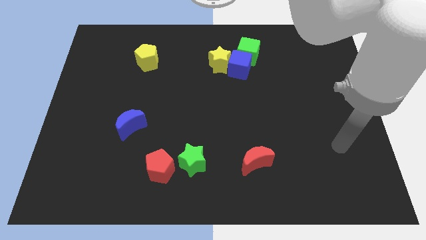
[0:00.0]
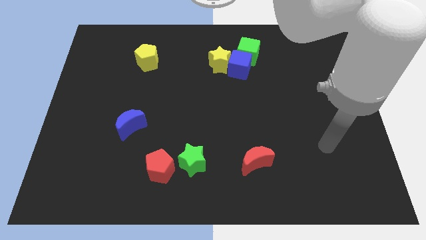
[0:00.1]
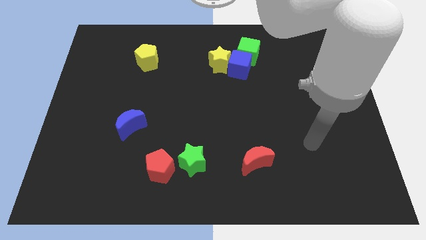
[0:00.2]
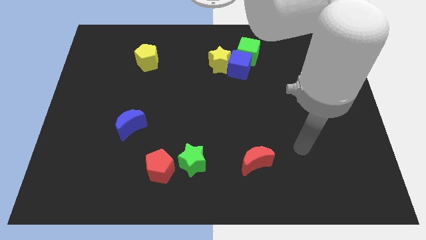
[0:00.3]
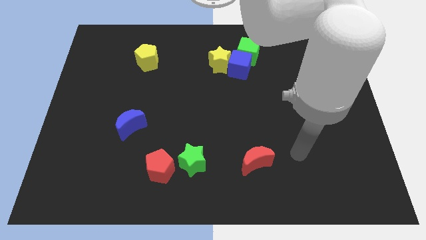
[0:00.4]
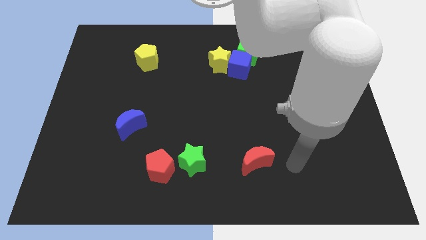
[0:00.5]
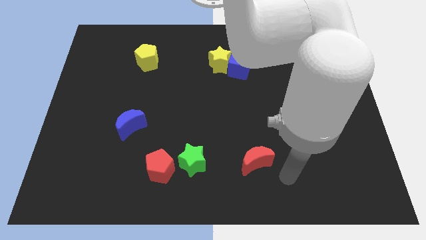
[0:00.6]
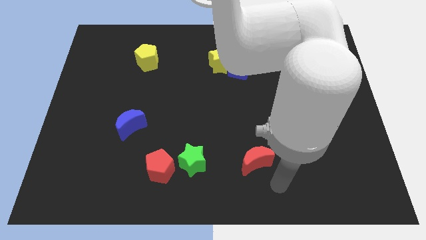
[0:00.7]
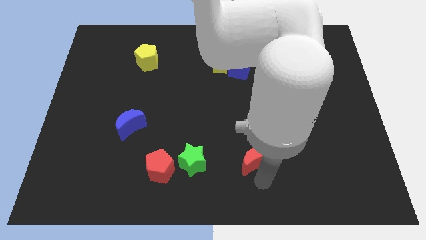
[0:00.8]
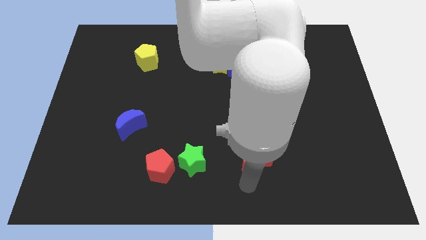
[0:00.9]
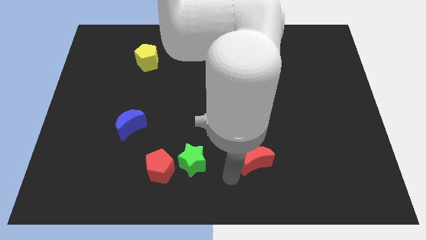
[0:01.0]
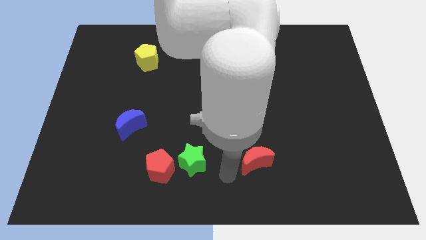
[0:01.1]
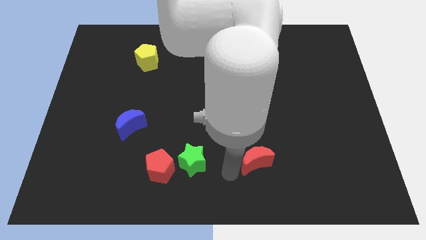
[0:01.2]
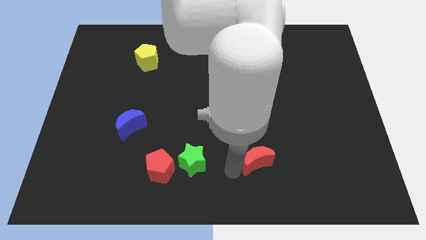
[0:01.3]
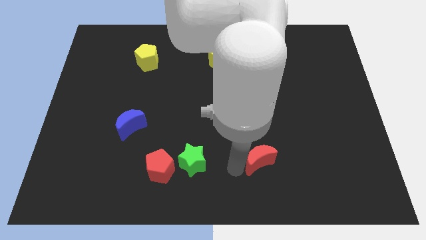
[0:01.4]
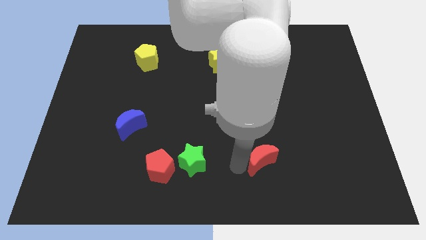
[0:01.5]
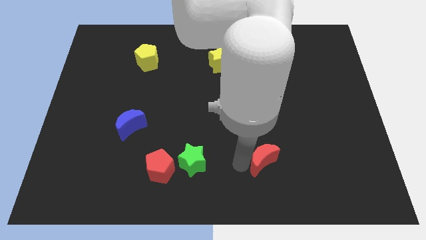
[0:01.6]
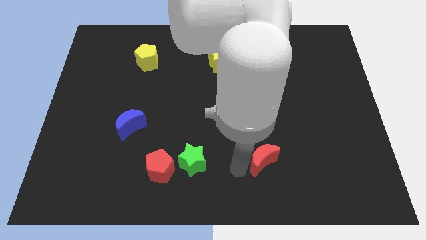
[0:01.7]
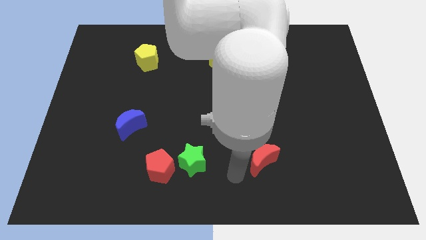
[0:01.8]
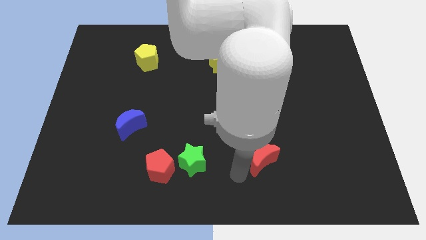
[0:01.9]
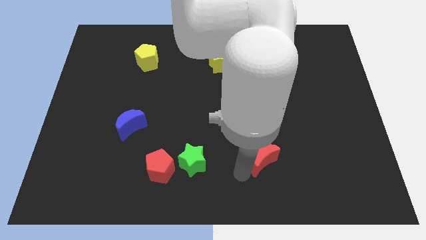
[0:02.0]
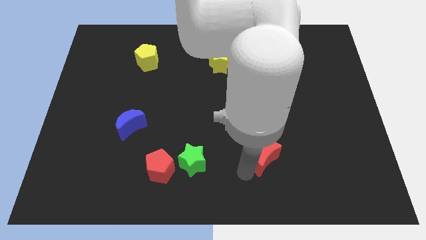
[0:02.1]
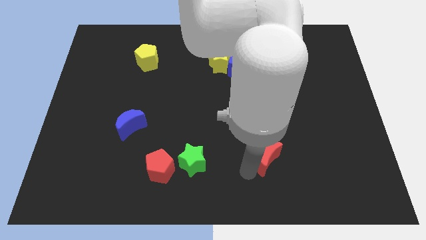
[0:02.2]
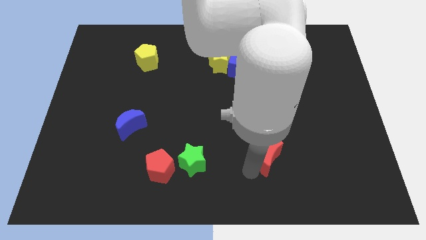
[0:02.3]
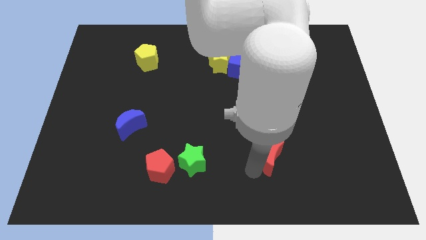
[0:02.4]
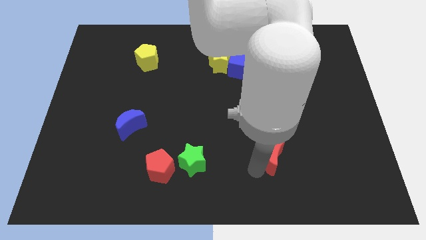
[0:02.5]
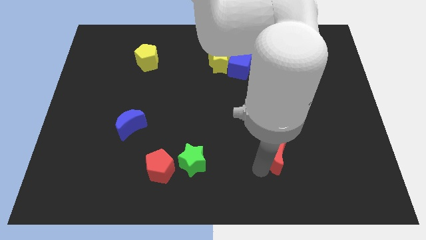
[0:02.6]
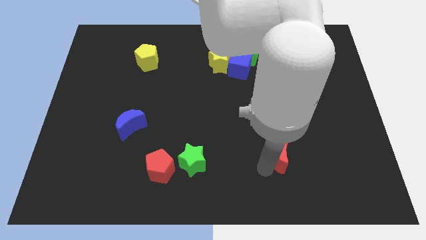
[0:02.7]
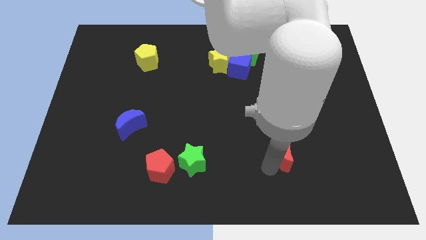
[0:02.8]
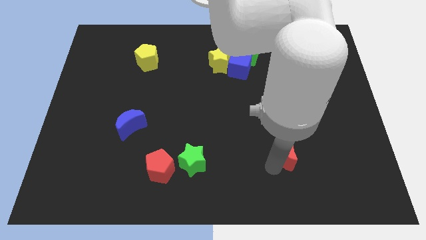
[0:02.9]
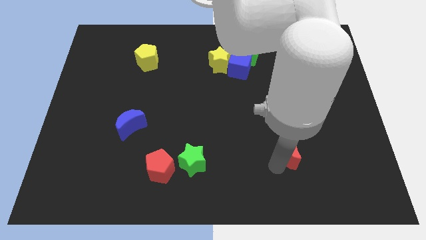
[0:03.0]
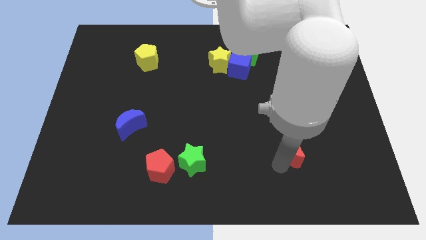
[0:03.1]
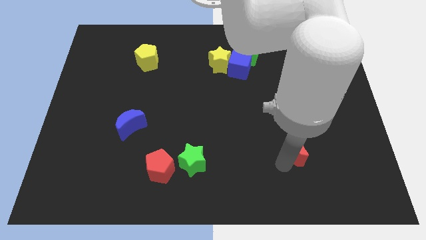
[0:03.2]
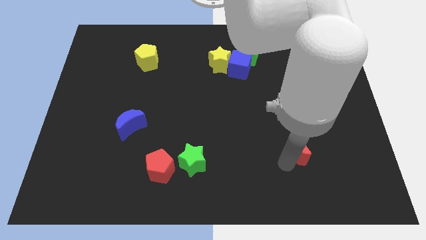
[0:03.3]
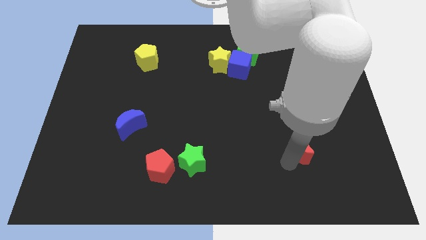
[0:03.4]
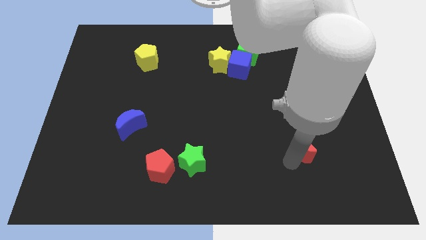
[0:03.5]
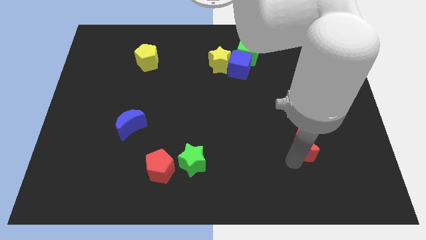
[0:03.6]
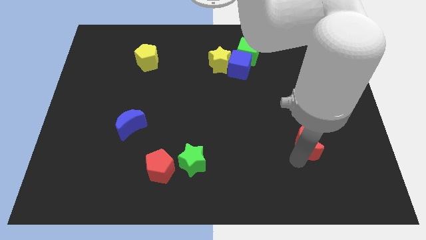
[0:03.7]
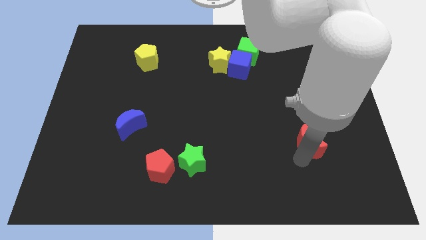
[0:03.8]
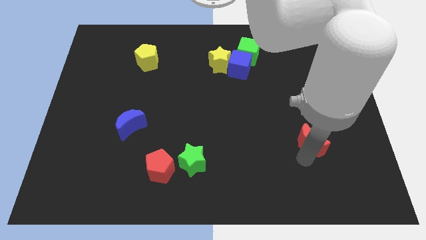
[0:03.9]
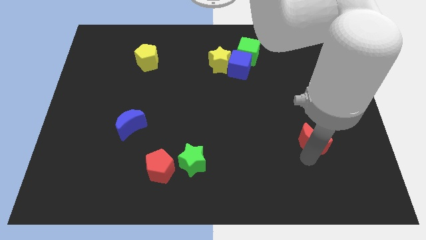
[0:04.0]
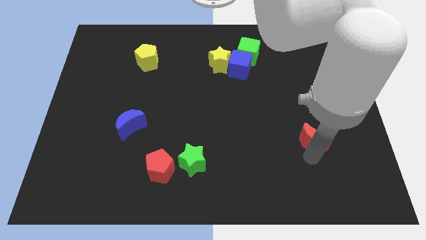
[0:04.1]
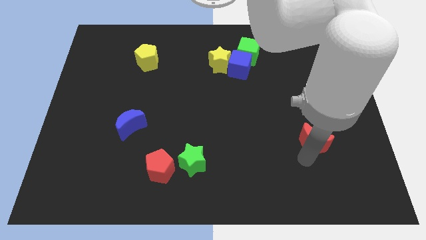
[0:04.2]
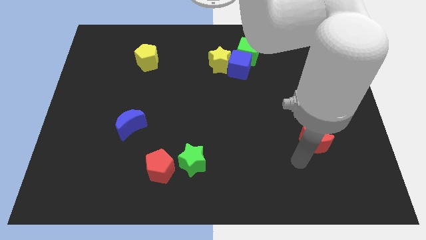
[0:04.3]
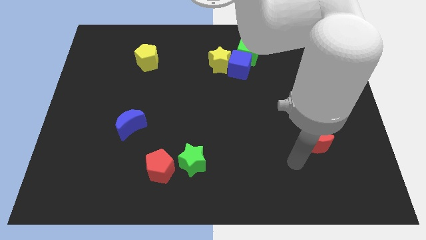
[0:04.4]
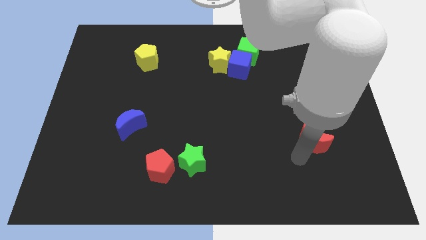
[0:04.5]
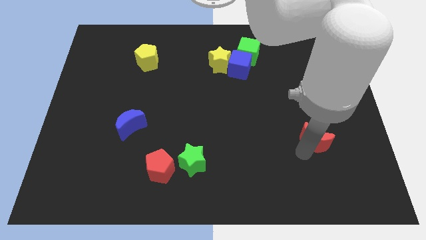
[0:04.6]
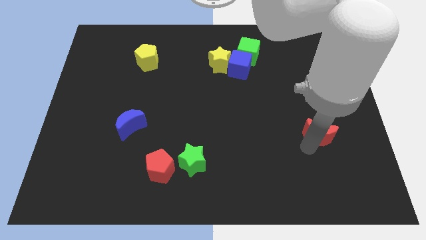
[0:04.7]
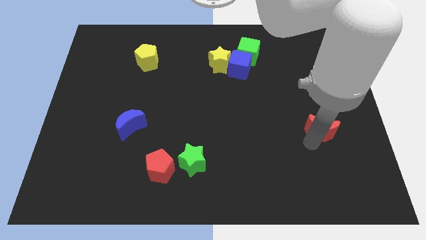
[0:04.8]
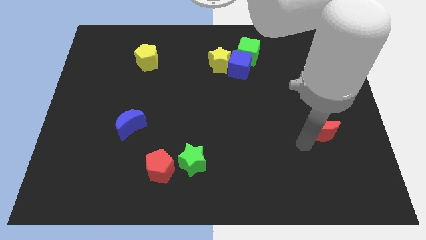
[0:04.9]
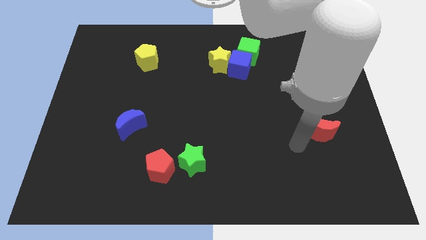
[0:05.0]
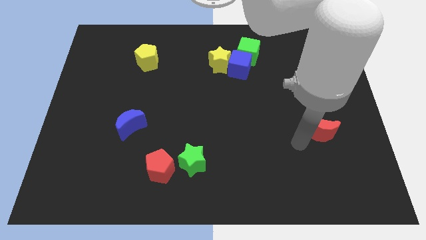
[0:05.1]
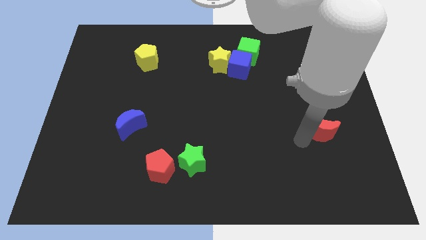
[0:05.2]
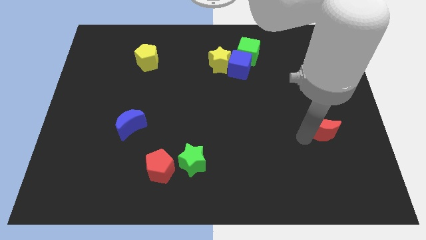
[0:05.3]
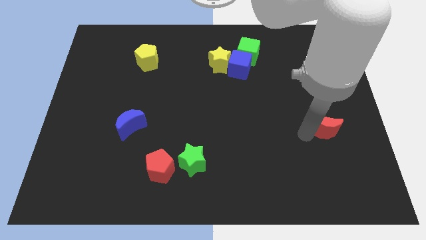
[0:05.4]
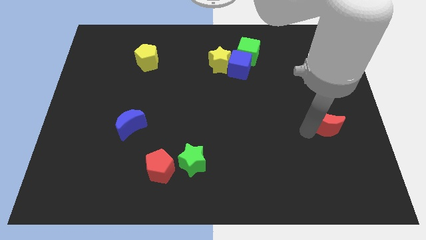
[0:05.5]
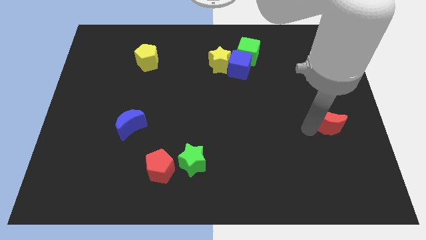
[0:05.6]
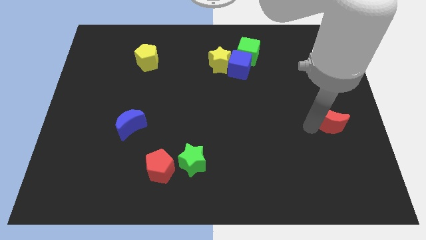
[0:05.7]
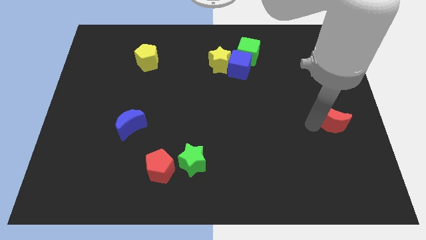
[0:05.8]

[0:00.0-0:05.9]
push the red moon to the center right

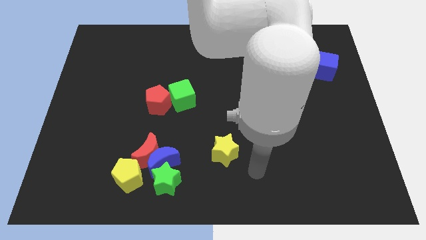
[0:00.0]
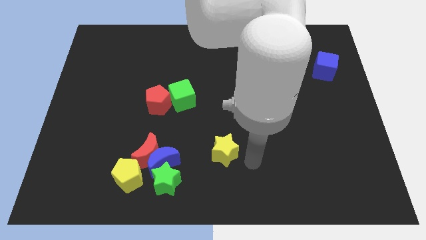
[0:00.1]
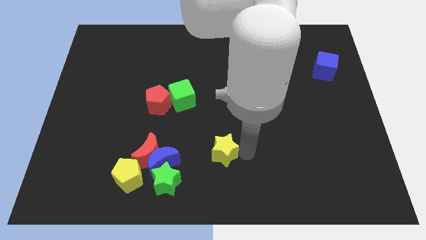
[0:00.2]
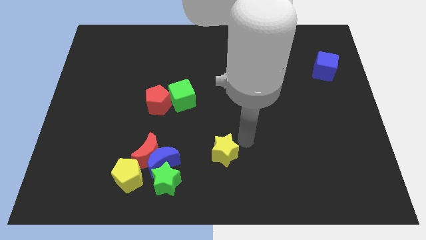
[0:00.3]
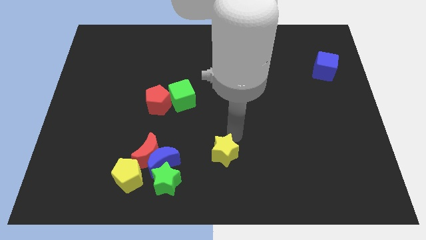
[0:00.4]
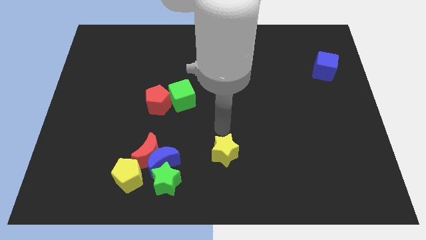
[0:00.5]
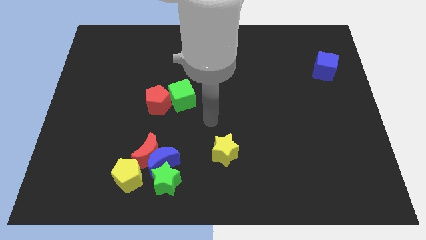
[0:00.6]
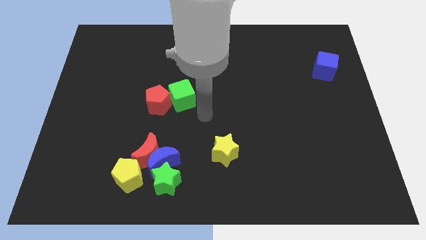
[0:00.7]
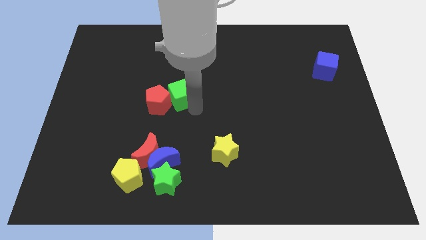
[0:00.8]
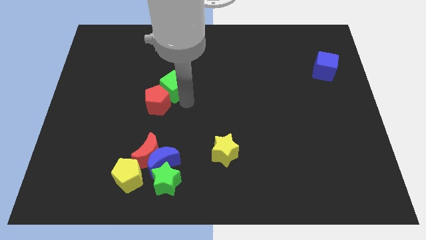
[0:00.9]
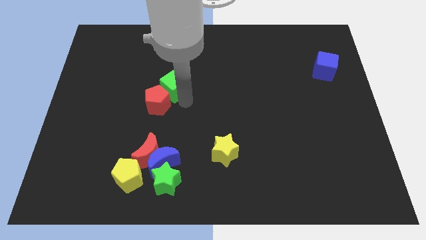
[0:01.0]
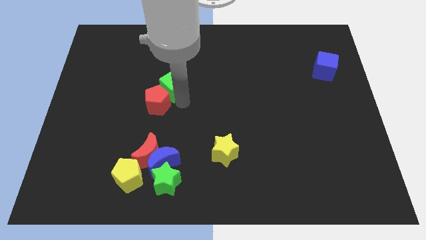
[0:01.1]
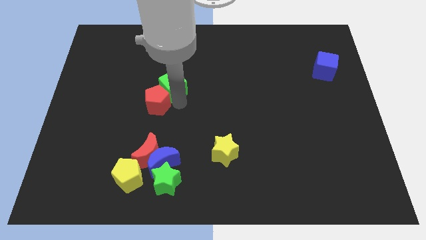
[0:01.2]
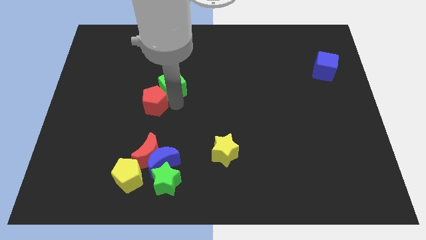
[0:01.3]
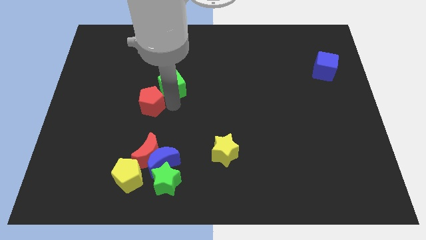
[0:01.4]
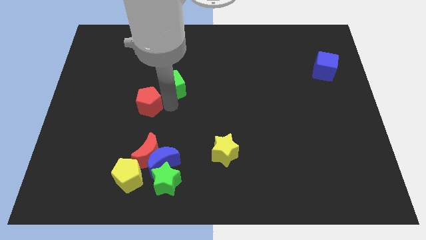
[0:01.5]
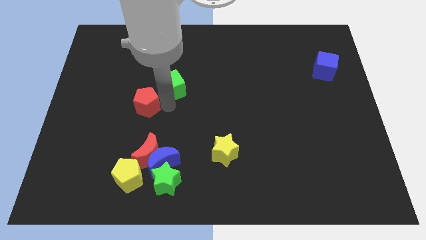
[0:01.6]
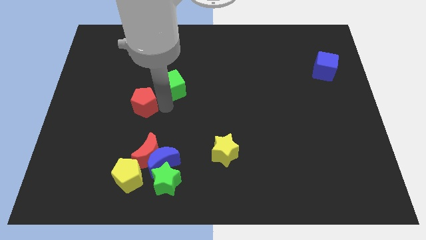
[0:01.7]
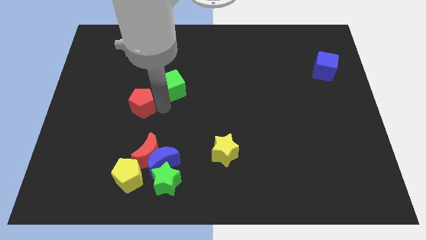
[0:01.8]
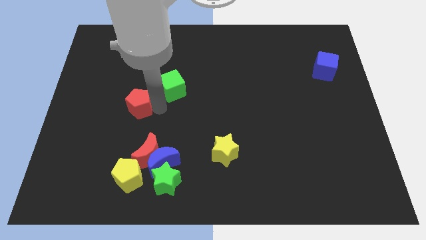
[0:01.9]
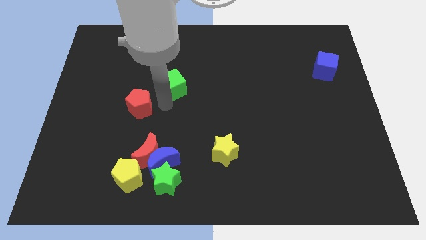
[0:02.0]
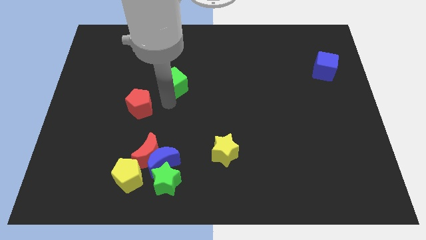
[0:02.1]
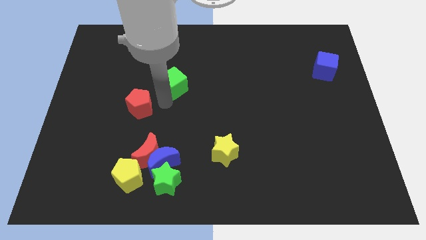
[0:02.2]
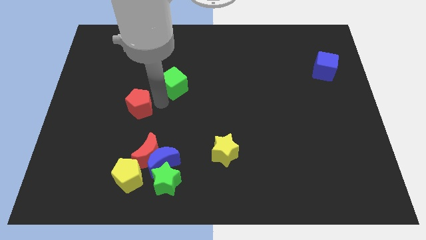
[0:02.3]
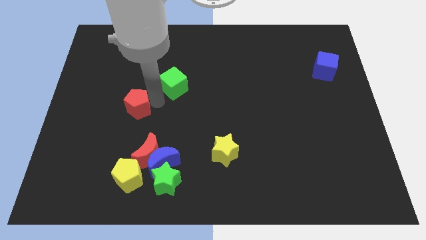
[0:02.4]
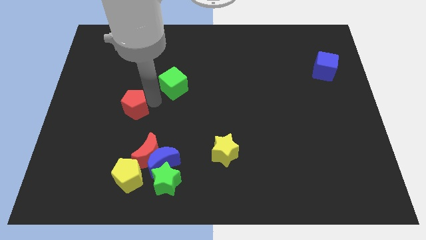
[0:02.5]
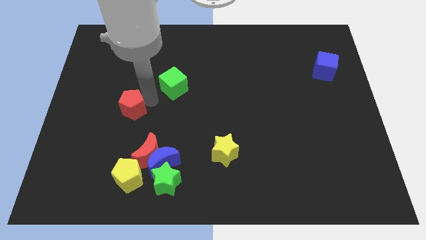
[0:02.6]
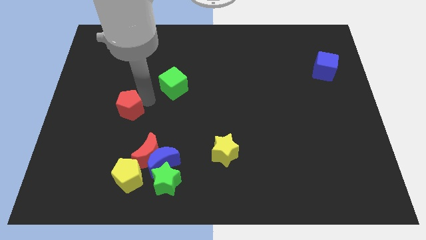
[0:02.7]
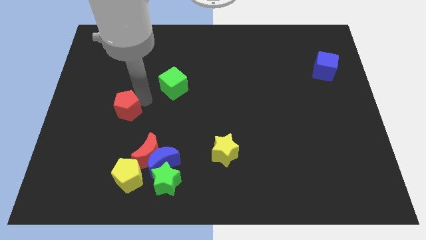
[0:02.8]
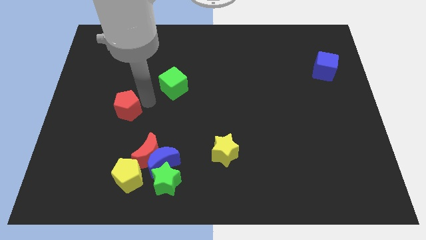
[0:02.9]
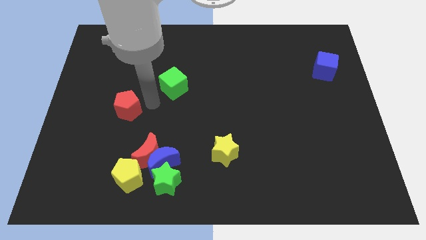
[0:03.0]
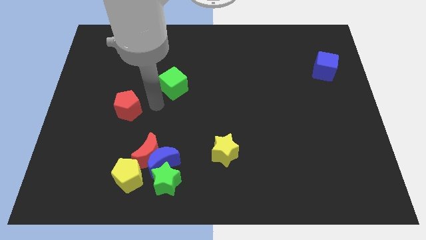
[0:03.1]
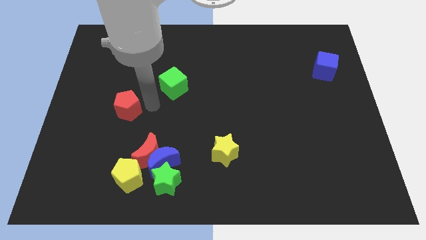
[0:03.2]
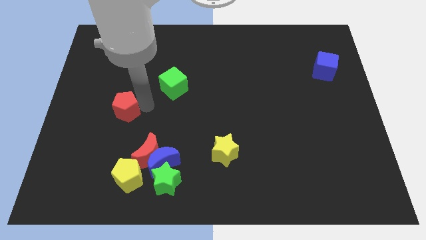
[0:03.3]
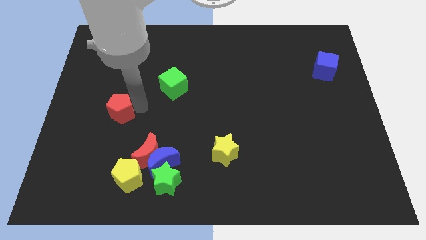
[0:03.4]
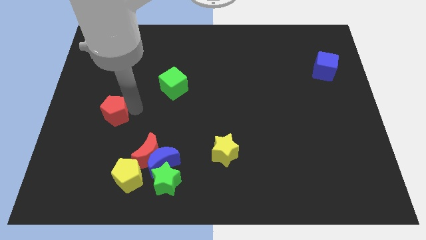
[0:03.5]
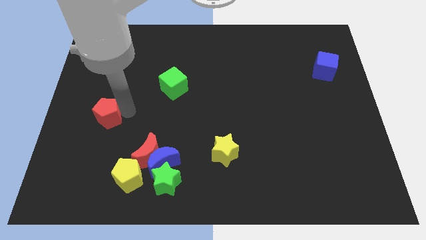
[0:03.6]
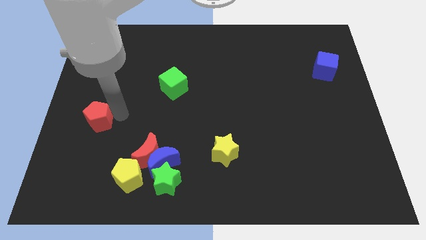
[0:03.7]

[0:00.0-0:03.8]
put the red pentagon to the left side
